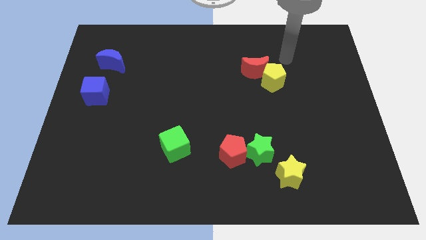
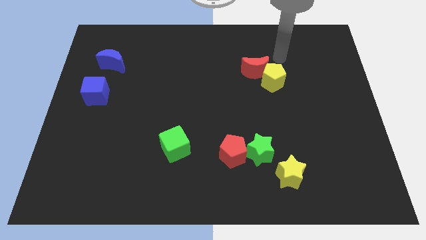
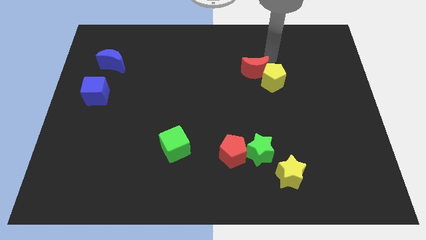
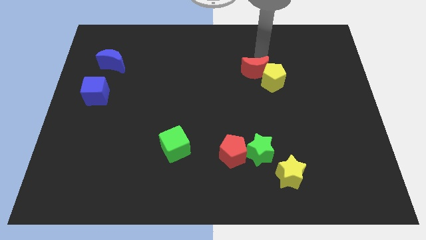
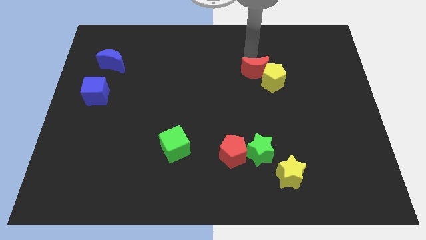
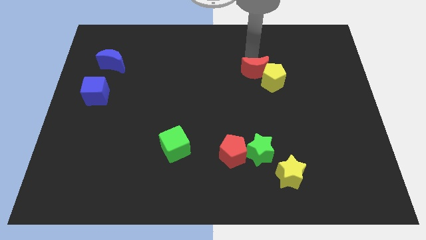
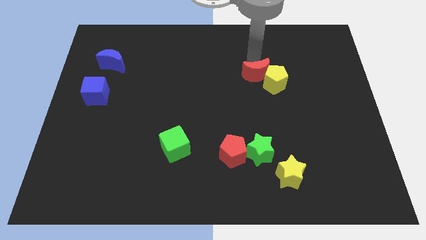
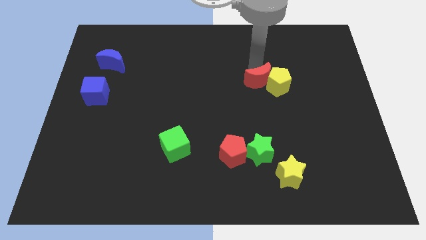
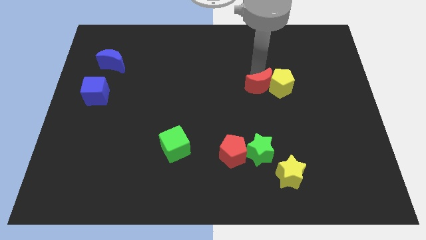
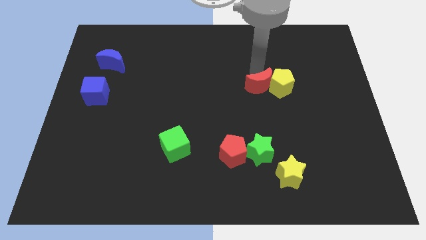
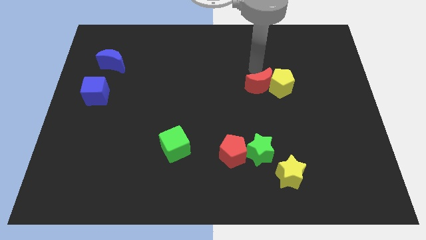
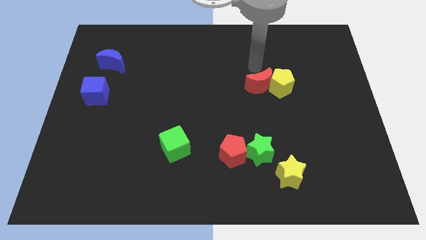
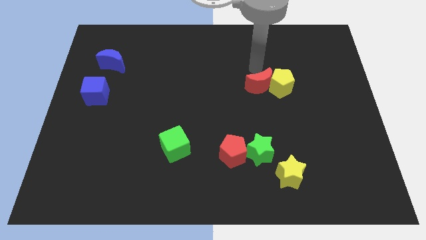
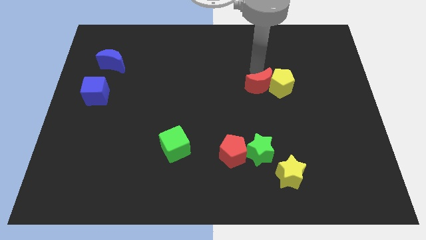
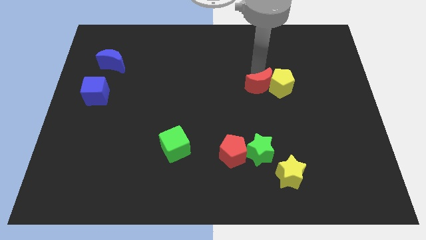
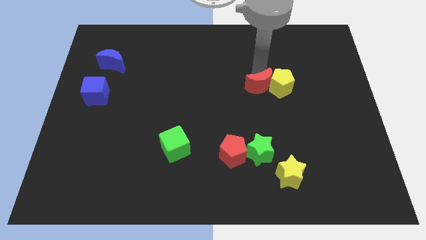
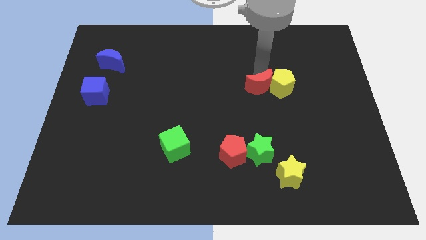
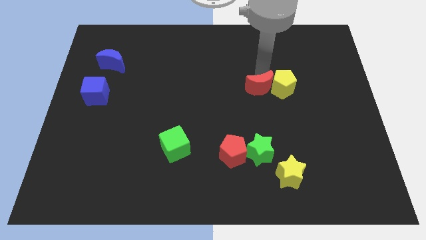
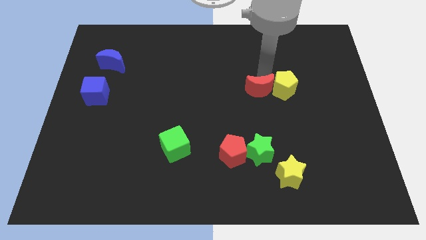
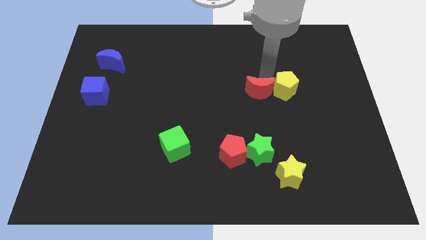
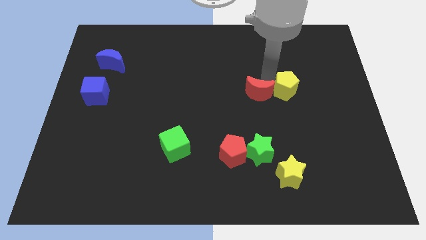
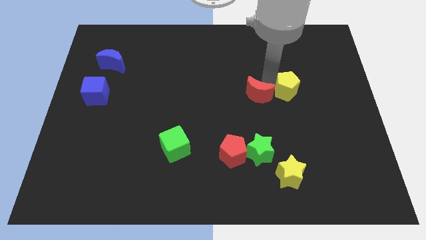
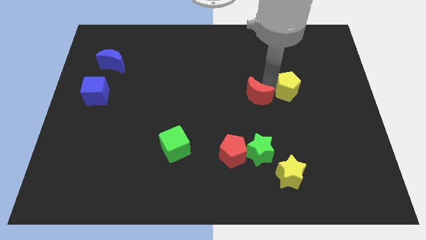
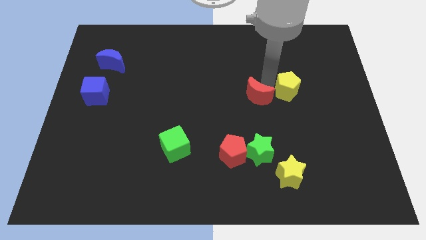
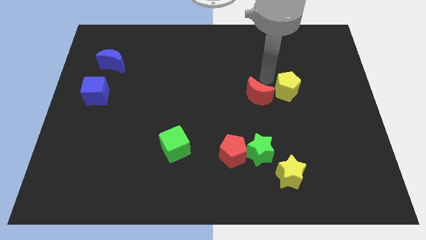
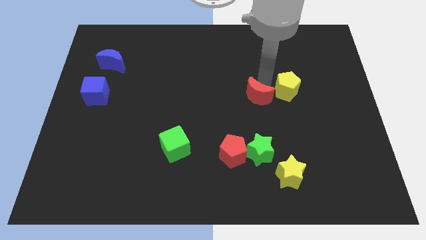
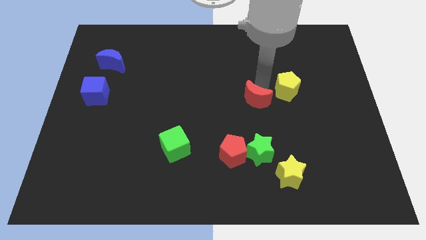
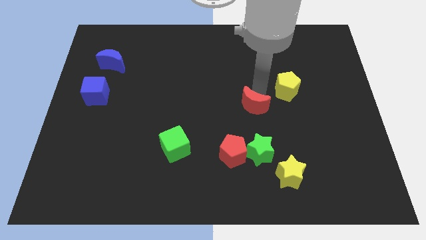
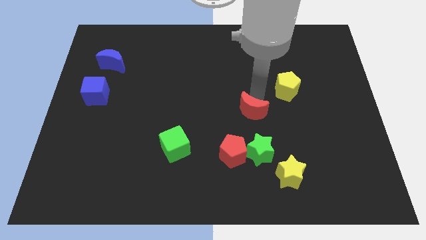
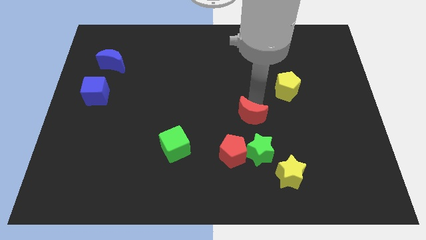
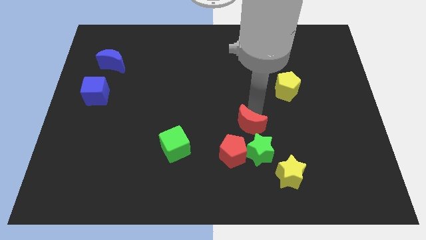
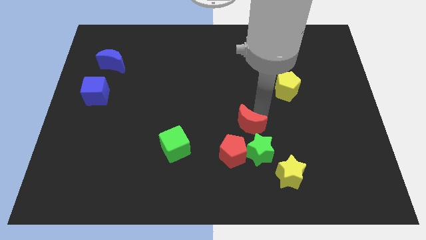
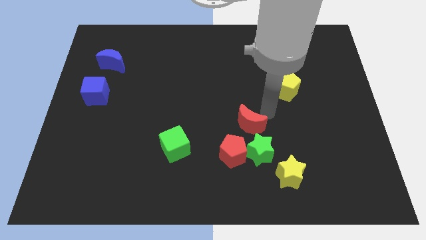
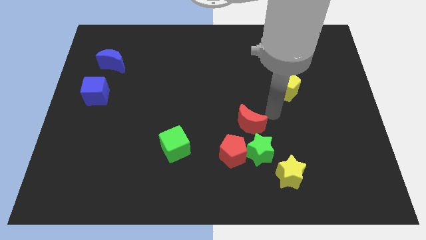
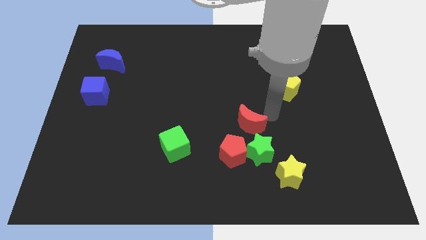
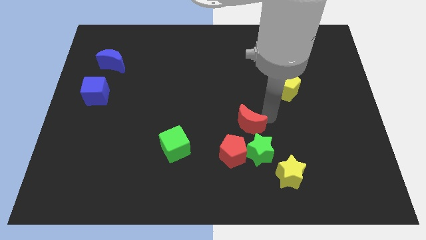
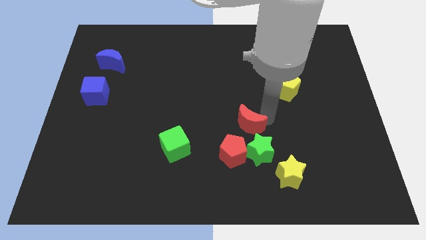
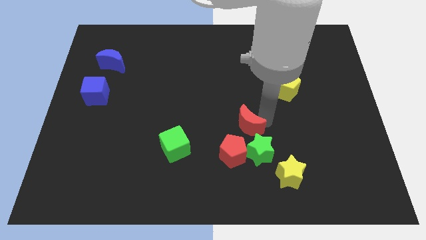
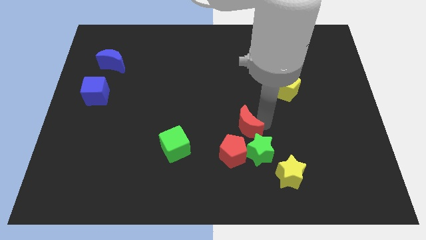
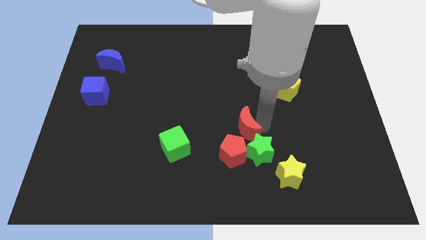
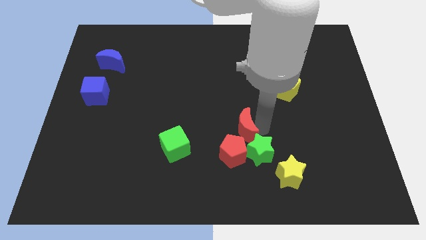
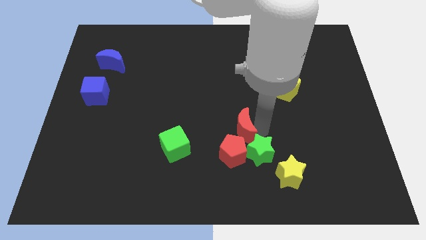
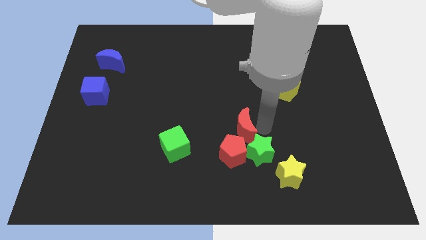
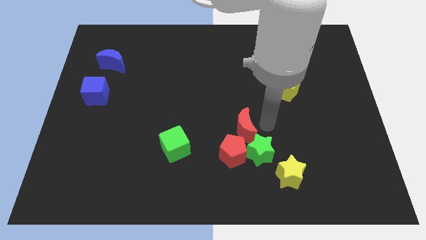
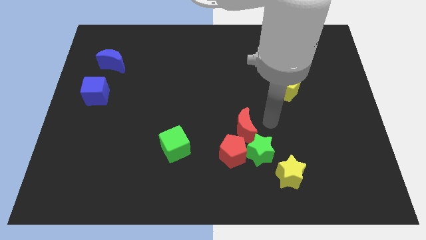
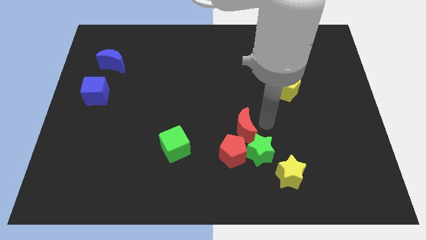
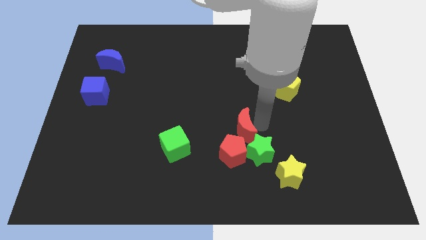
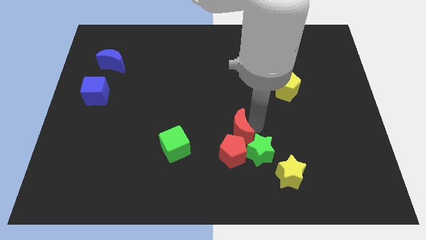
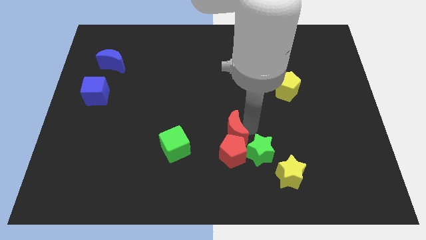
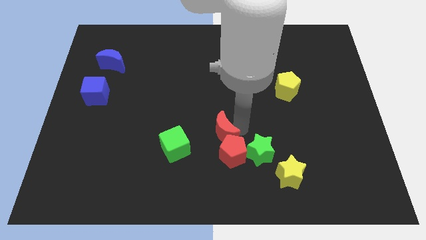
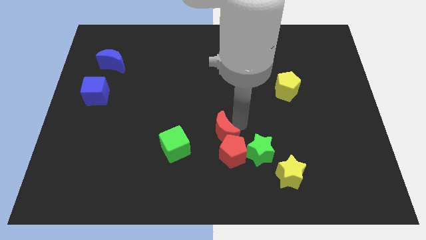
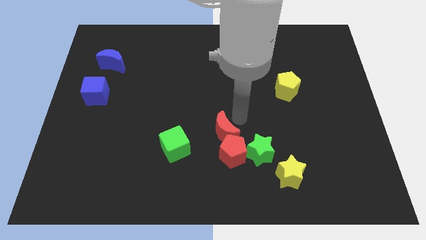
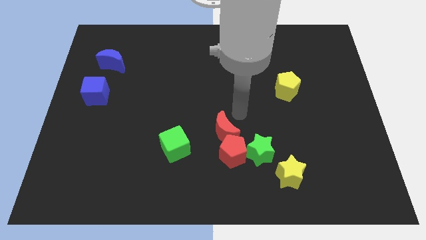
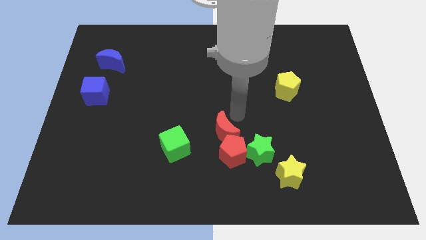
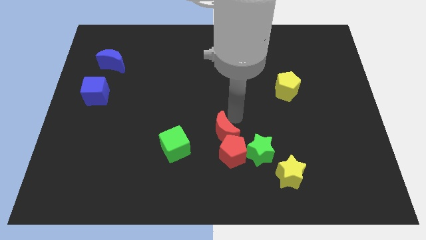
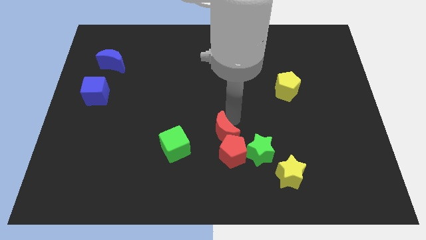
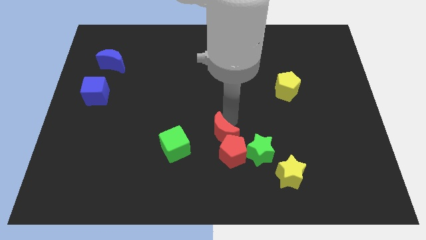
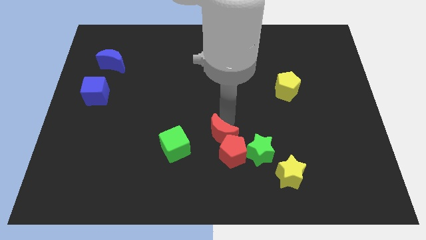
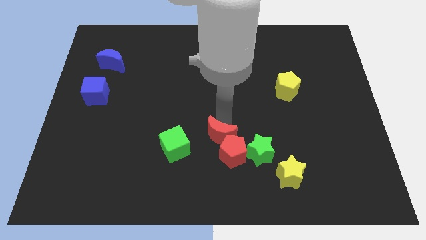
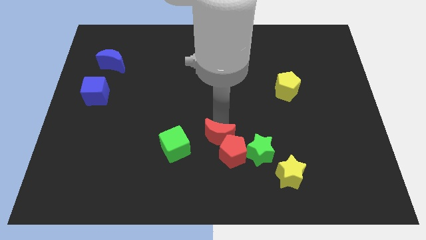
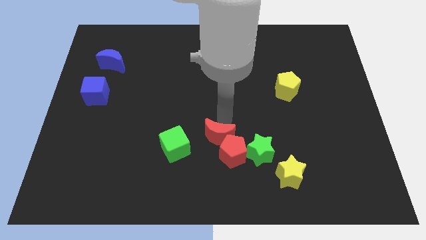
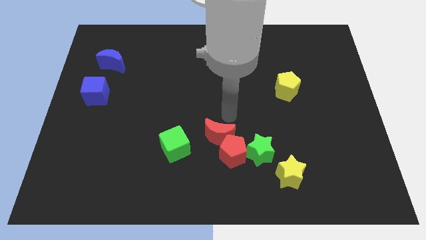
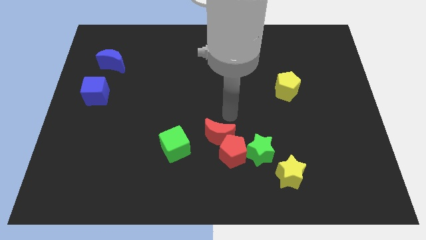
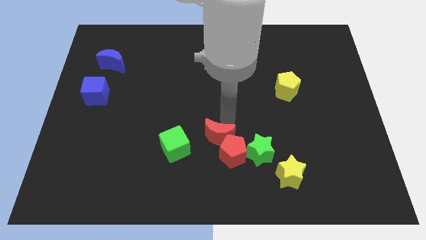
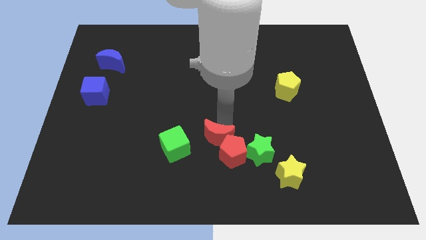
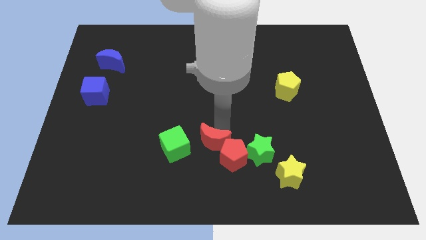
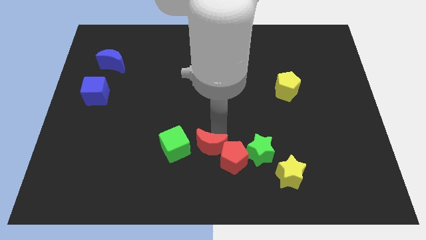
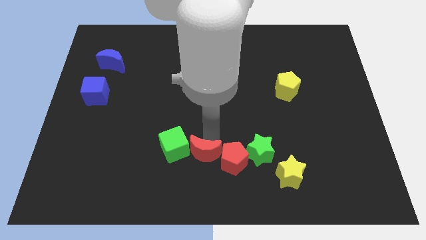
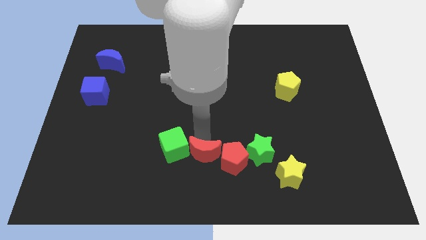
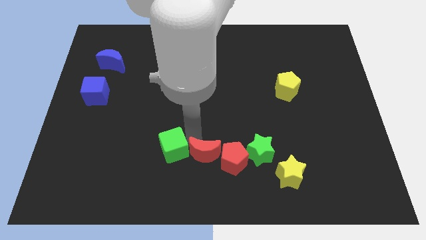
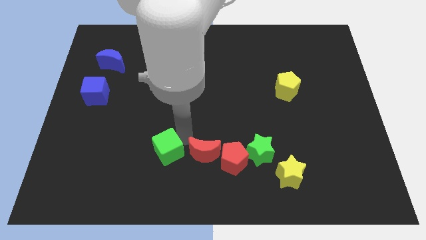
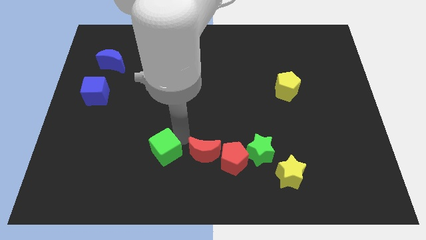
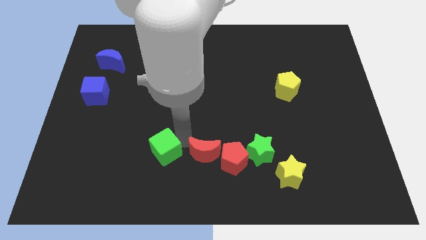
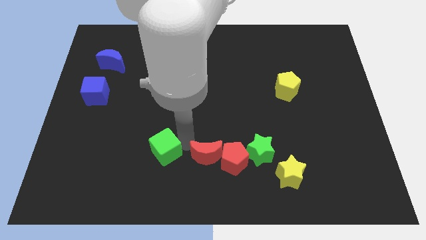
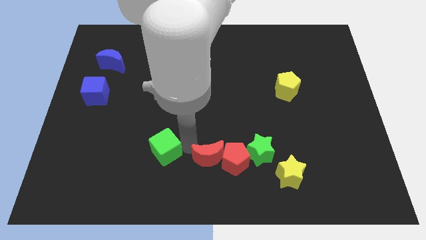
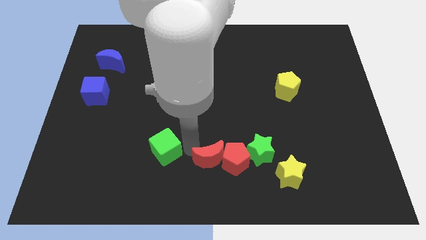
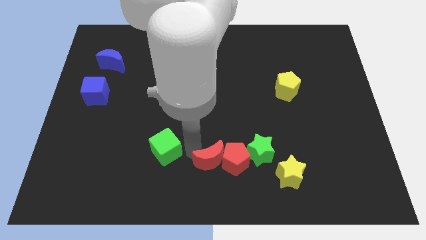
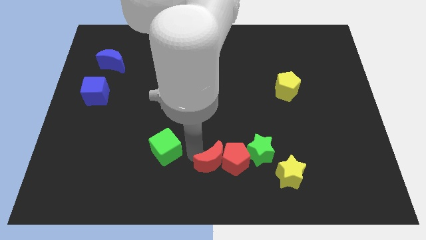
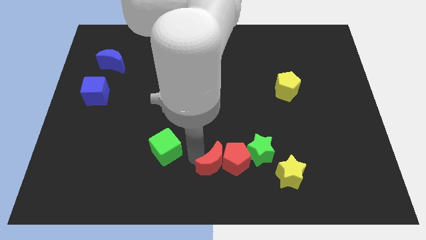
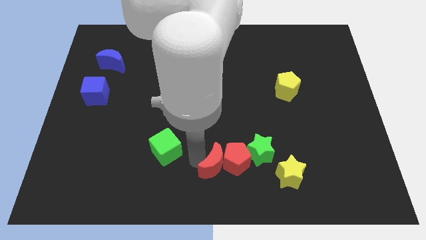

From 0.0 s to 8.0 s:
push the red moon to the bottom left side of the green star
